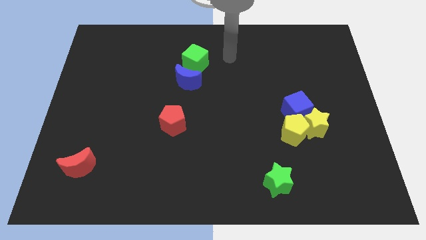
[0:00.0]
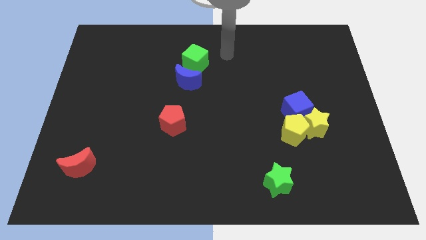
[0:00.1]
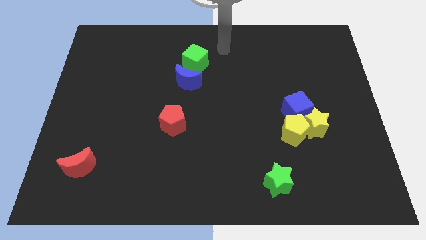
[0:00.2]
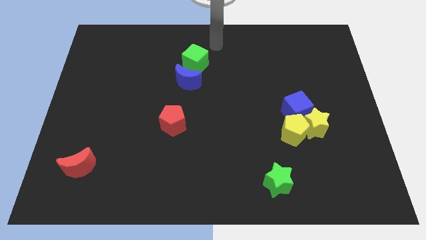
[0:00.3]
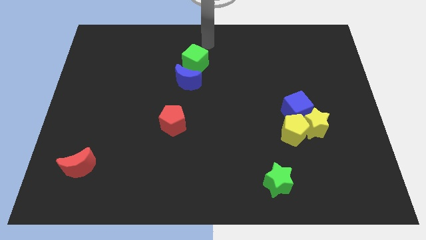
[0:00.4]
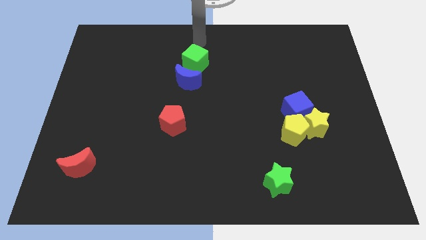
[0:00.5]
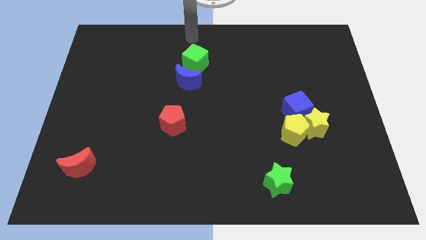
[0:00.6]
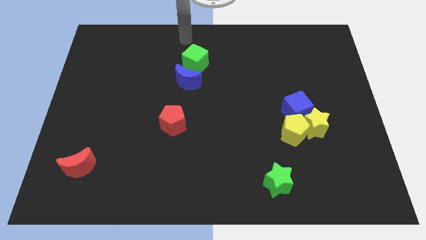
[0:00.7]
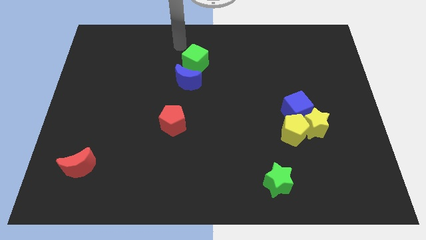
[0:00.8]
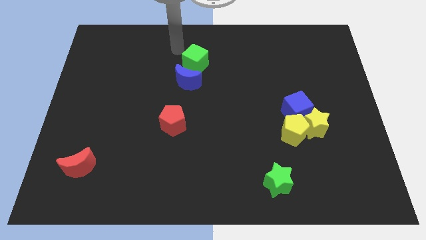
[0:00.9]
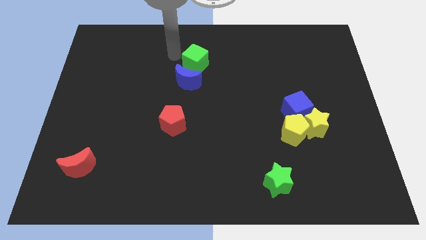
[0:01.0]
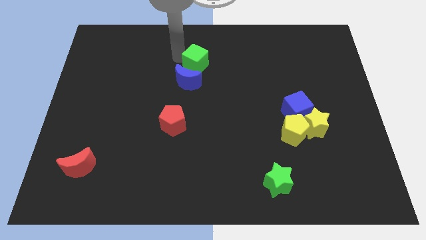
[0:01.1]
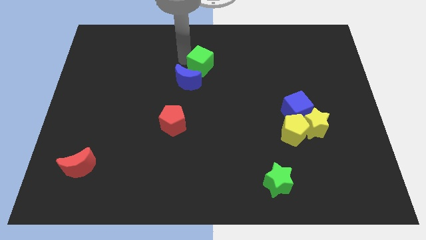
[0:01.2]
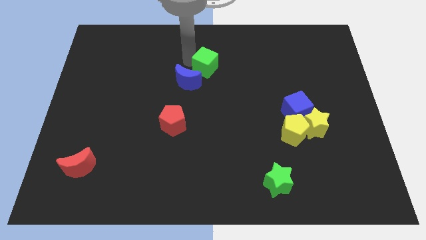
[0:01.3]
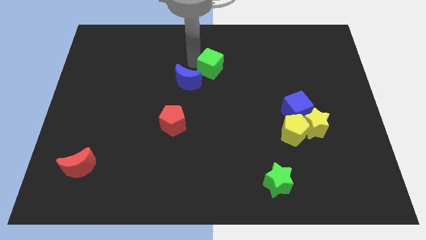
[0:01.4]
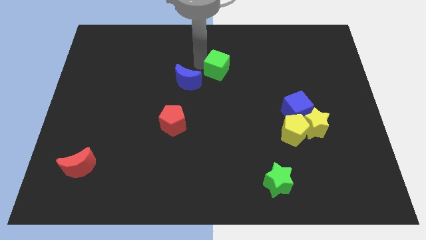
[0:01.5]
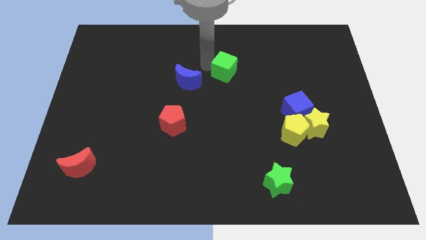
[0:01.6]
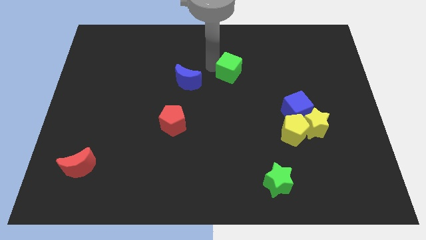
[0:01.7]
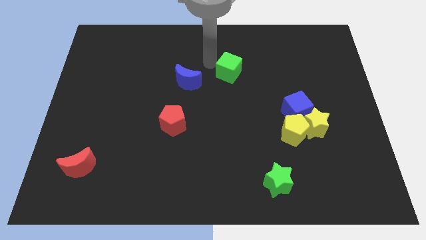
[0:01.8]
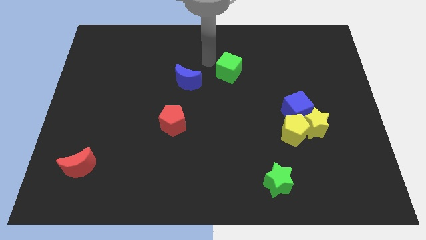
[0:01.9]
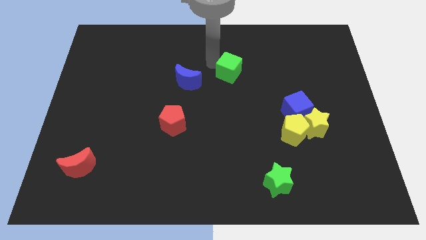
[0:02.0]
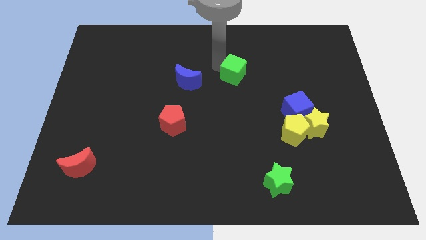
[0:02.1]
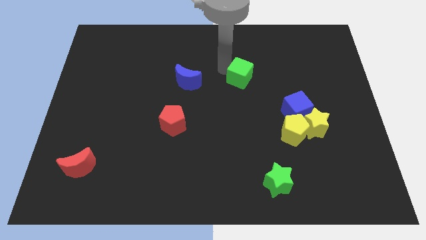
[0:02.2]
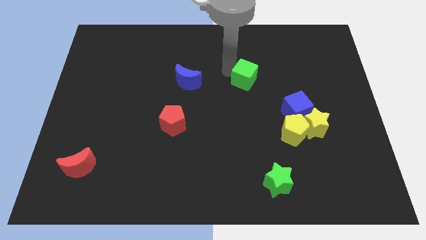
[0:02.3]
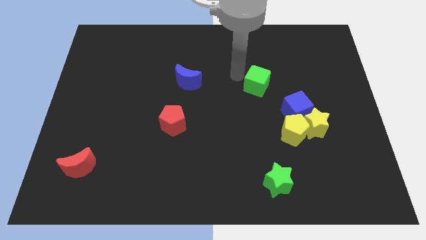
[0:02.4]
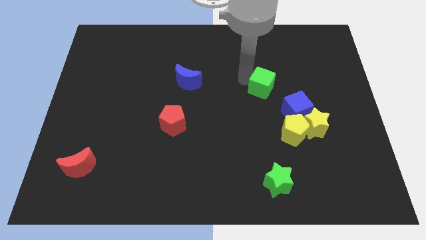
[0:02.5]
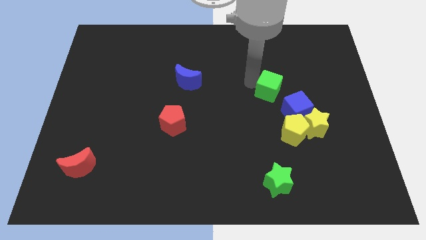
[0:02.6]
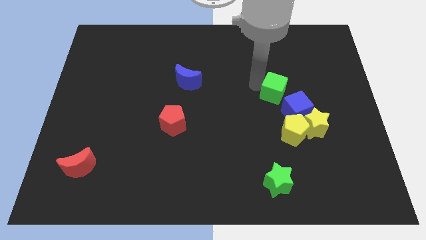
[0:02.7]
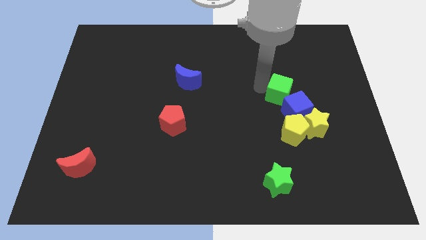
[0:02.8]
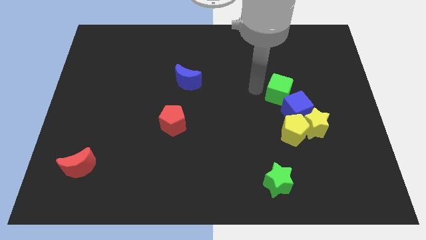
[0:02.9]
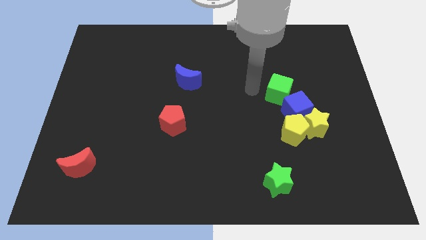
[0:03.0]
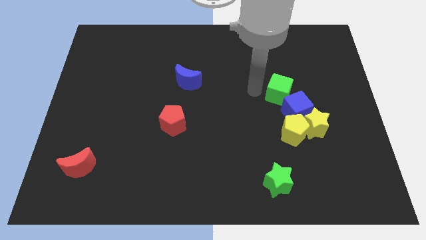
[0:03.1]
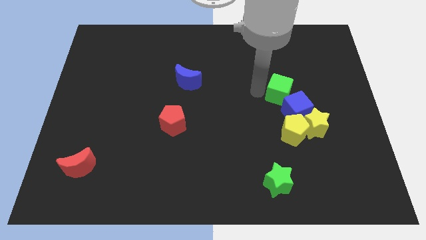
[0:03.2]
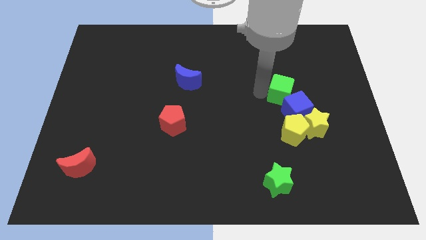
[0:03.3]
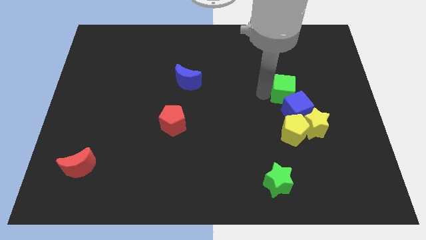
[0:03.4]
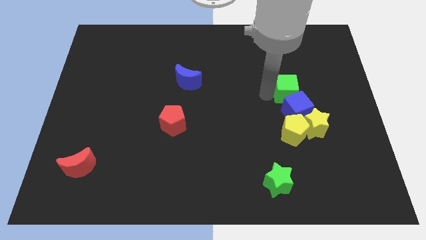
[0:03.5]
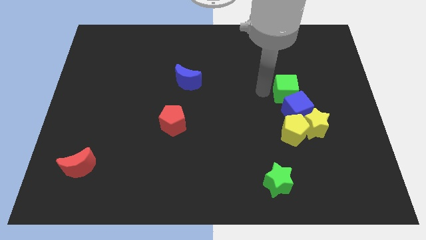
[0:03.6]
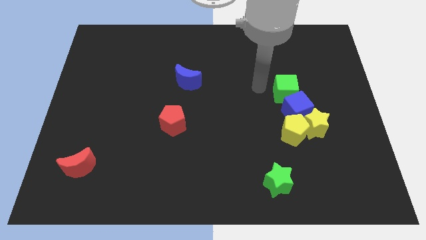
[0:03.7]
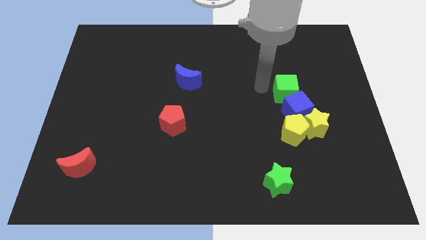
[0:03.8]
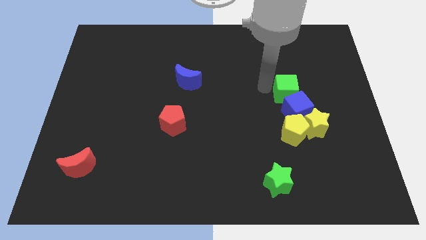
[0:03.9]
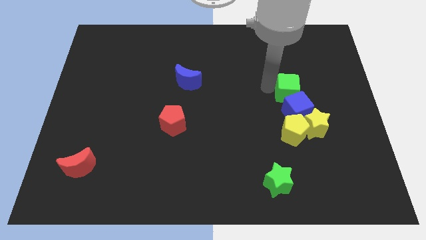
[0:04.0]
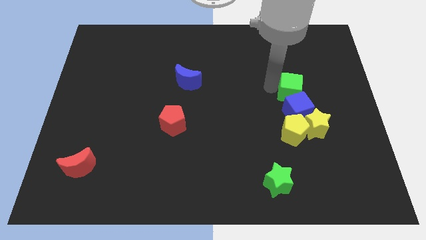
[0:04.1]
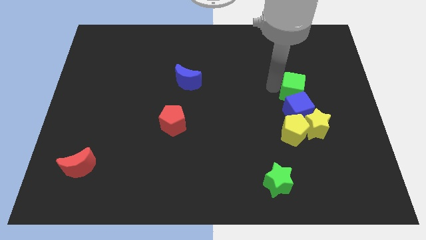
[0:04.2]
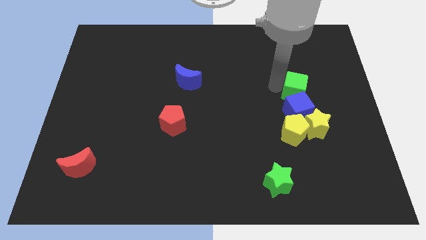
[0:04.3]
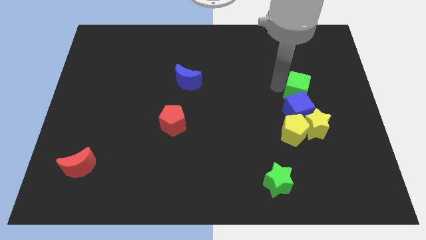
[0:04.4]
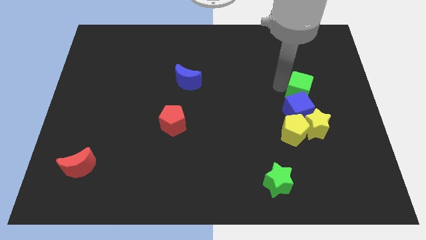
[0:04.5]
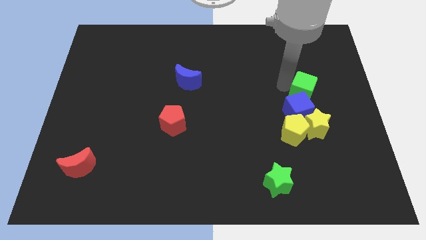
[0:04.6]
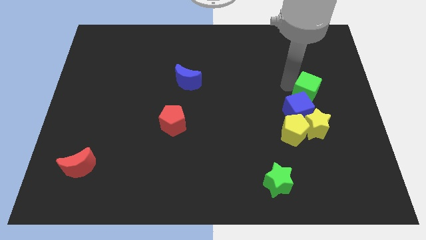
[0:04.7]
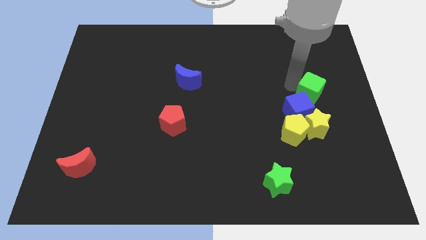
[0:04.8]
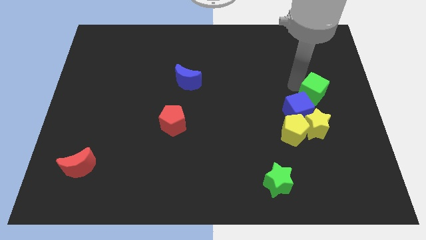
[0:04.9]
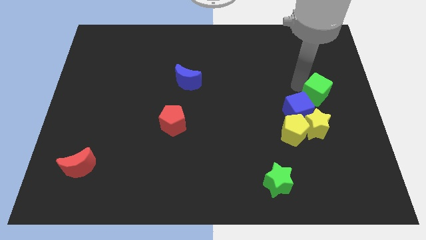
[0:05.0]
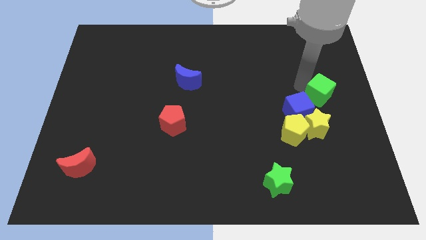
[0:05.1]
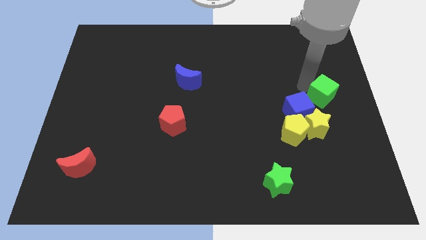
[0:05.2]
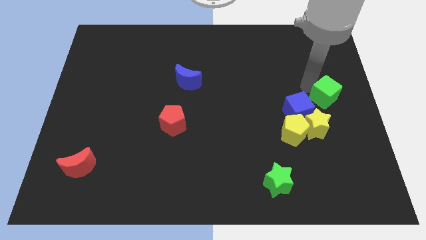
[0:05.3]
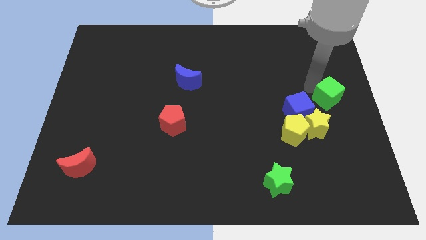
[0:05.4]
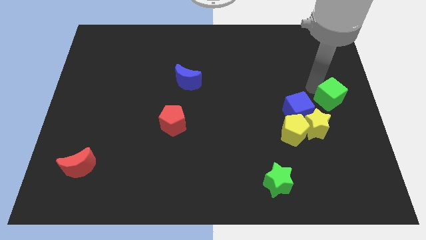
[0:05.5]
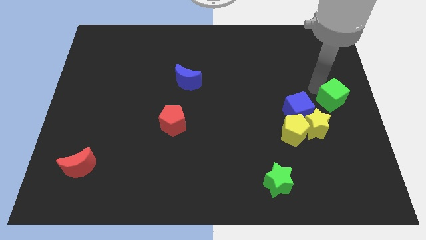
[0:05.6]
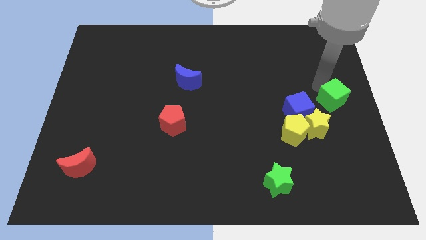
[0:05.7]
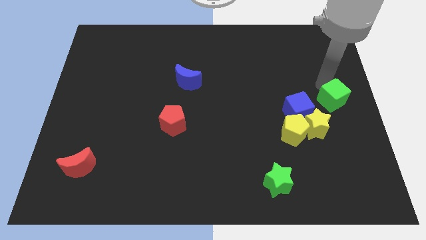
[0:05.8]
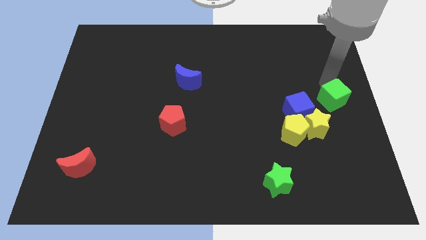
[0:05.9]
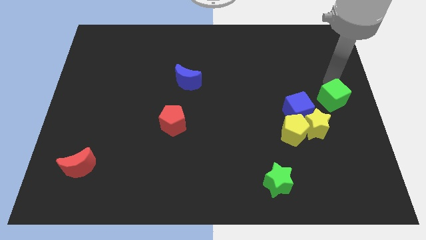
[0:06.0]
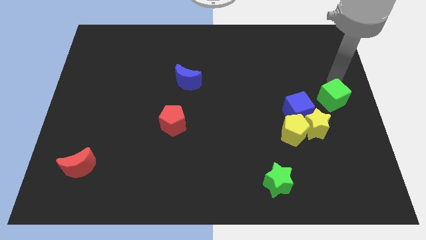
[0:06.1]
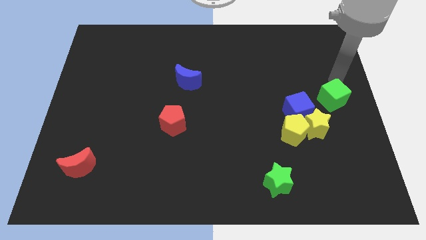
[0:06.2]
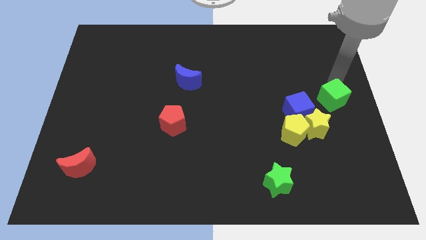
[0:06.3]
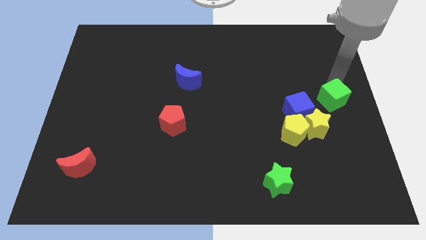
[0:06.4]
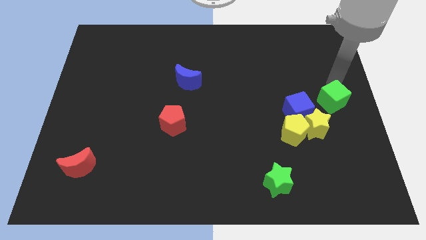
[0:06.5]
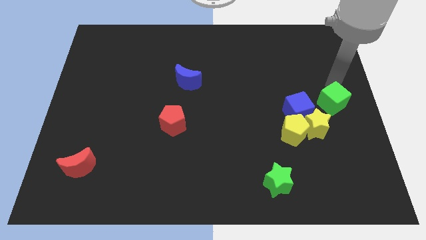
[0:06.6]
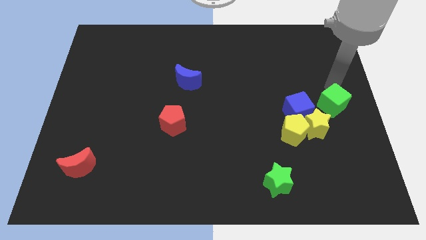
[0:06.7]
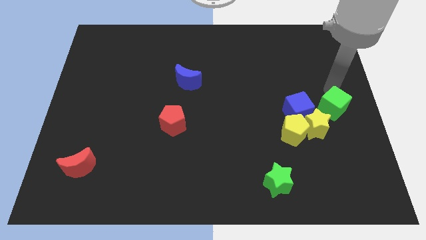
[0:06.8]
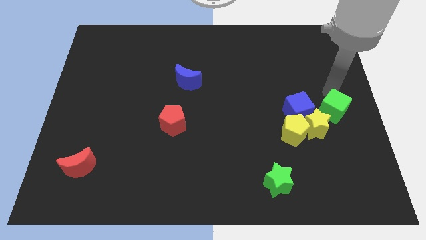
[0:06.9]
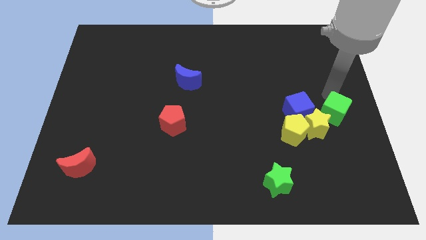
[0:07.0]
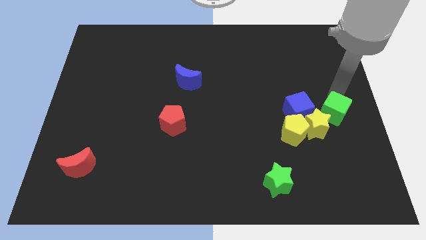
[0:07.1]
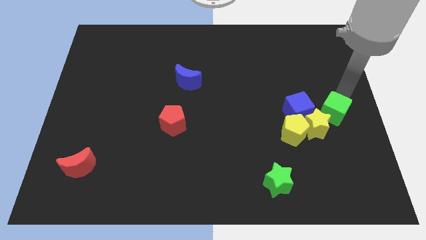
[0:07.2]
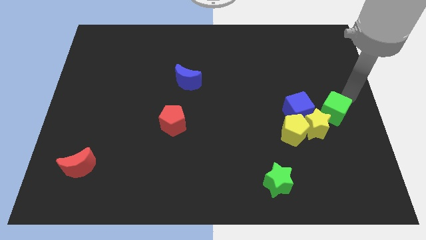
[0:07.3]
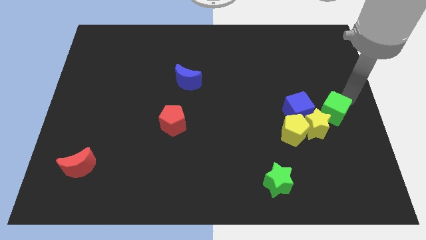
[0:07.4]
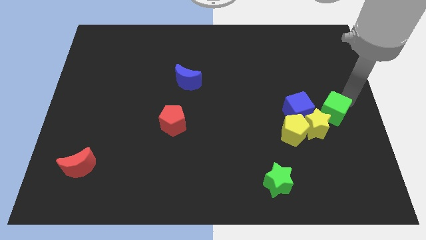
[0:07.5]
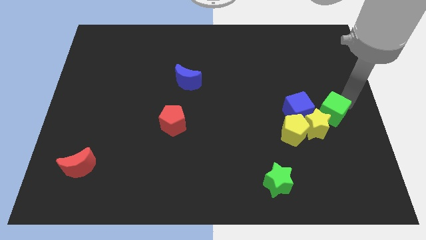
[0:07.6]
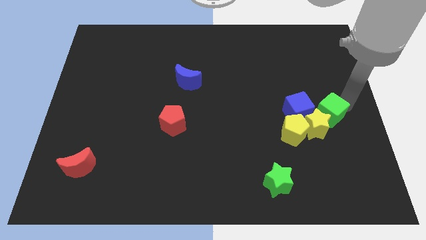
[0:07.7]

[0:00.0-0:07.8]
put the green cube to the yellow star
